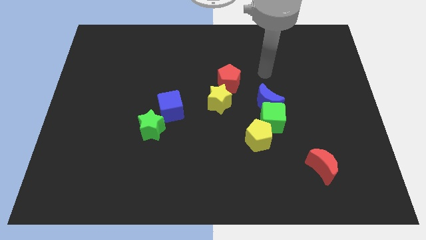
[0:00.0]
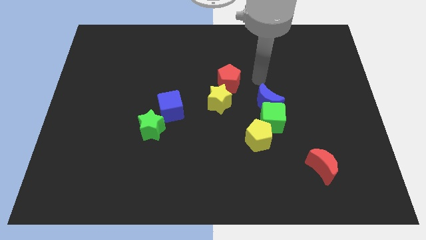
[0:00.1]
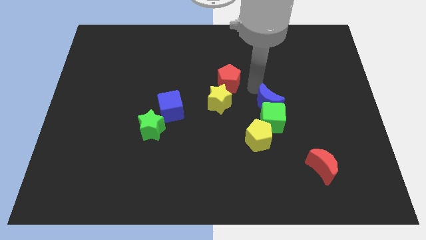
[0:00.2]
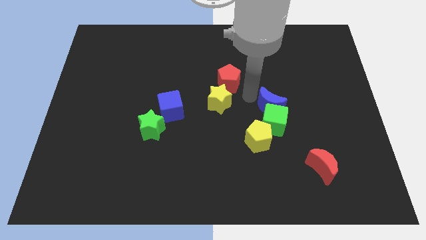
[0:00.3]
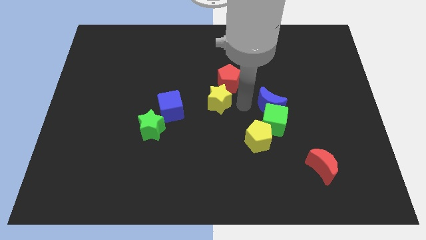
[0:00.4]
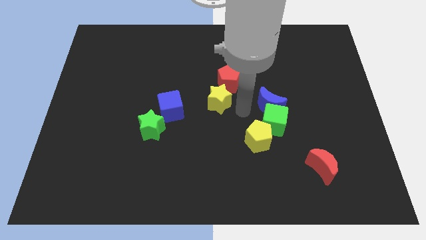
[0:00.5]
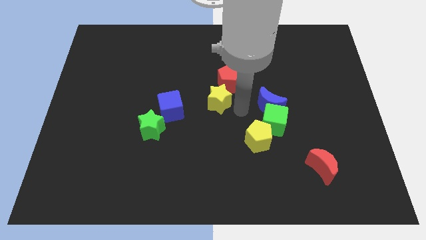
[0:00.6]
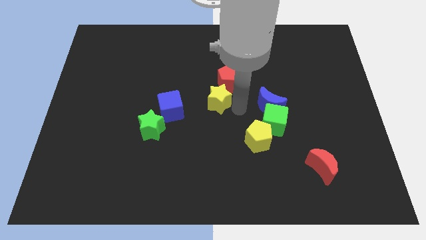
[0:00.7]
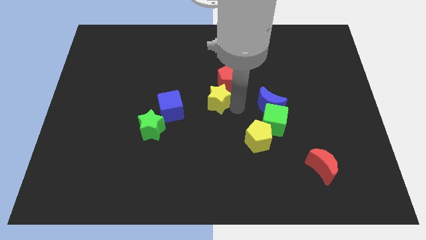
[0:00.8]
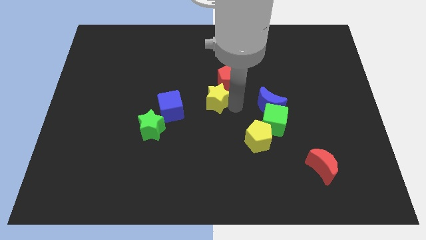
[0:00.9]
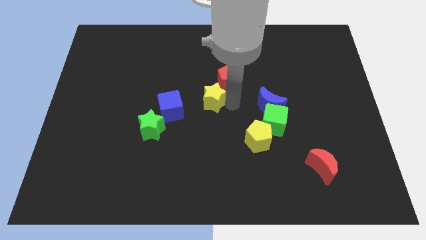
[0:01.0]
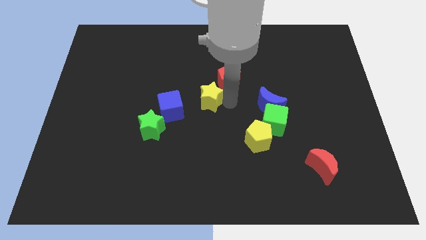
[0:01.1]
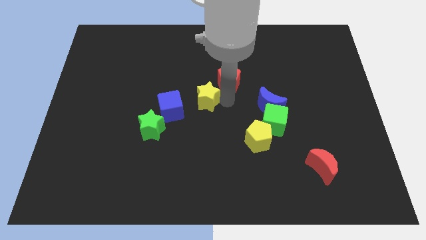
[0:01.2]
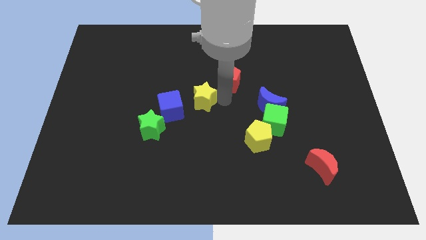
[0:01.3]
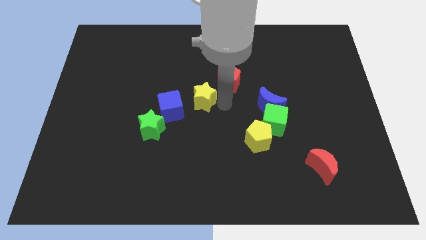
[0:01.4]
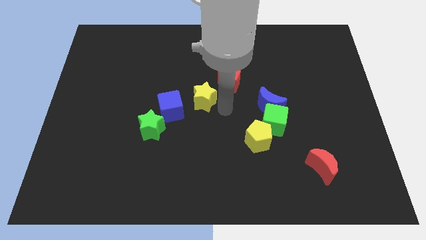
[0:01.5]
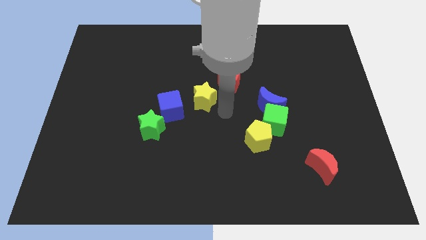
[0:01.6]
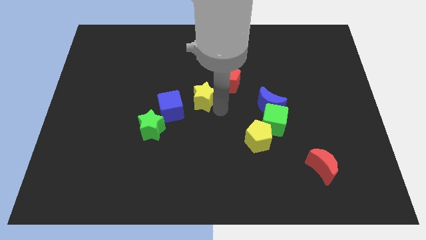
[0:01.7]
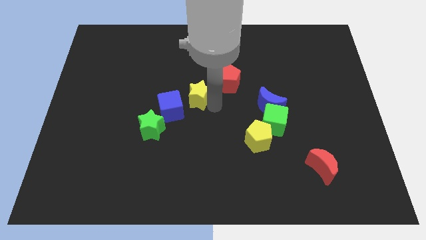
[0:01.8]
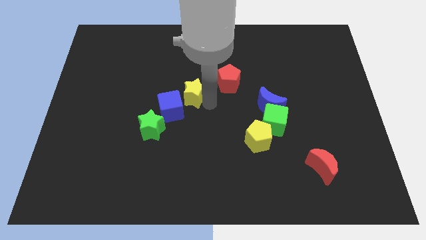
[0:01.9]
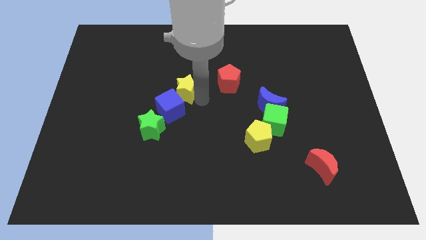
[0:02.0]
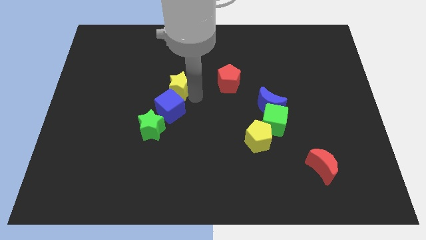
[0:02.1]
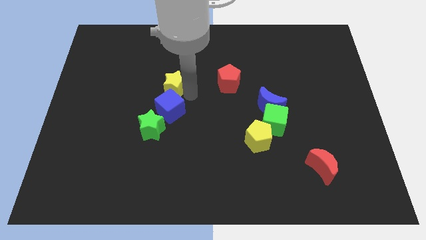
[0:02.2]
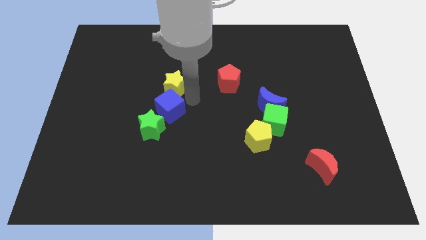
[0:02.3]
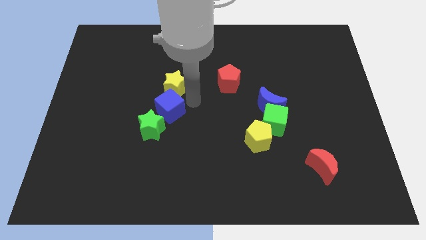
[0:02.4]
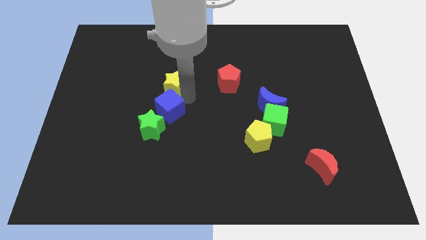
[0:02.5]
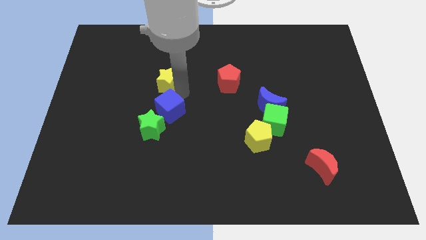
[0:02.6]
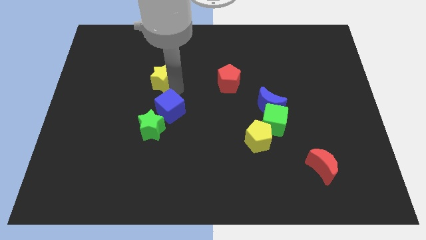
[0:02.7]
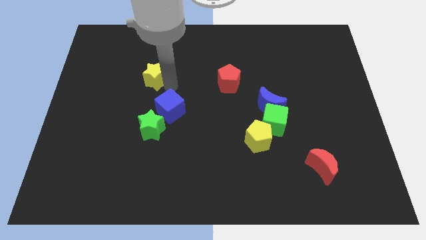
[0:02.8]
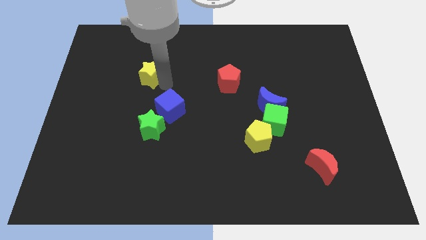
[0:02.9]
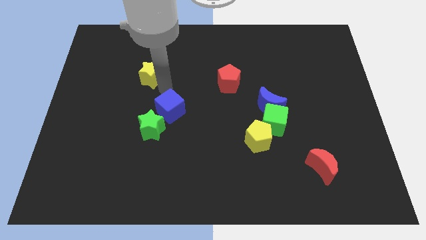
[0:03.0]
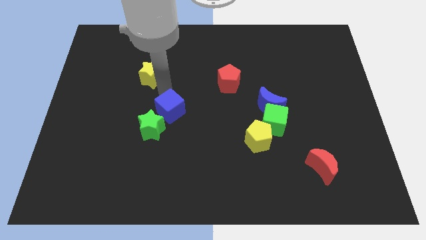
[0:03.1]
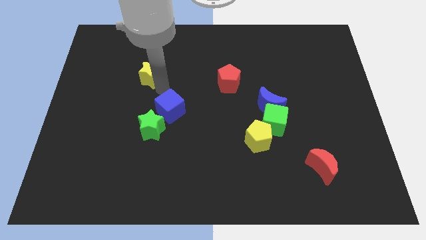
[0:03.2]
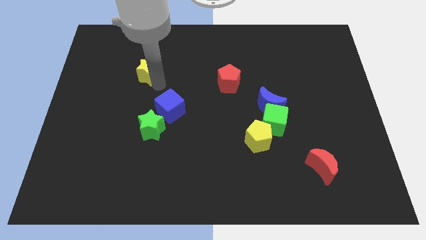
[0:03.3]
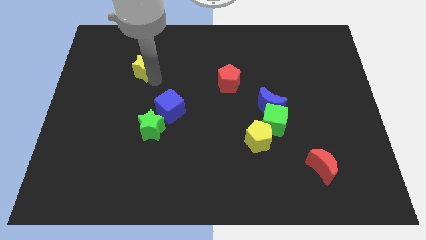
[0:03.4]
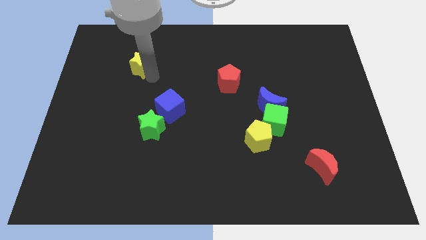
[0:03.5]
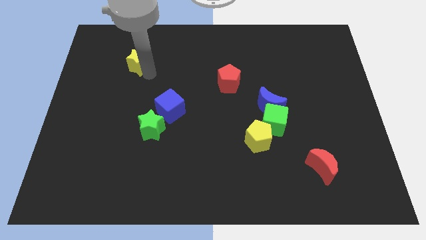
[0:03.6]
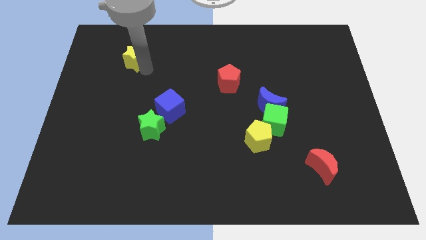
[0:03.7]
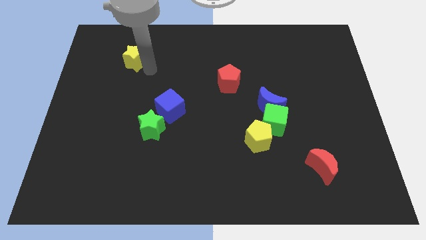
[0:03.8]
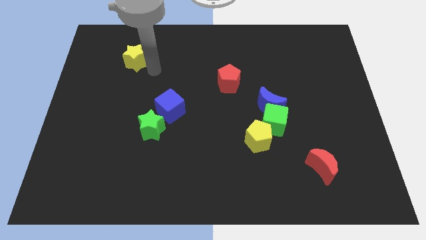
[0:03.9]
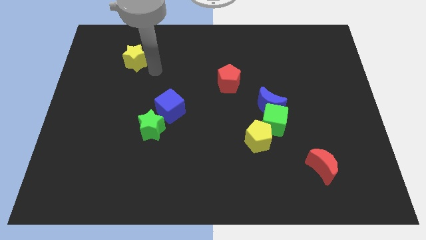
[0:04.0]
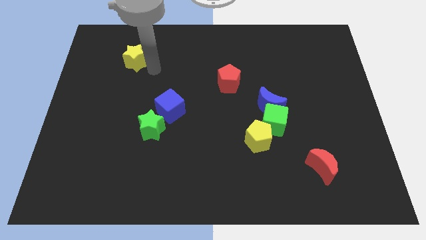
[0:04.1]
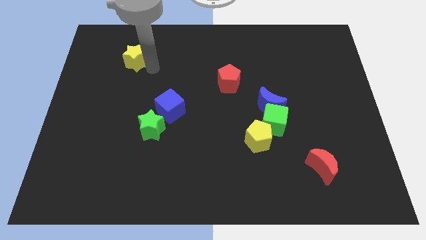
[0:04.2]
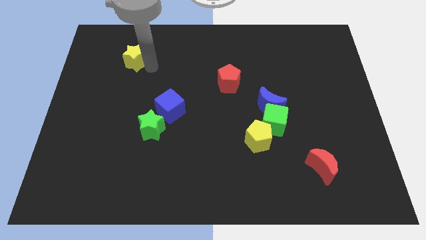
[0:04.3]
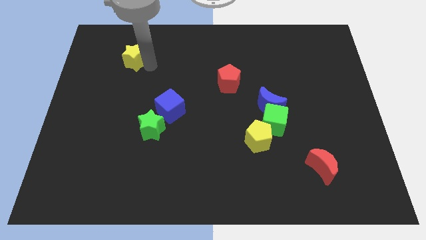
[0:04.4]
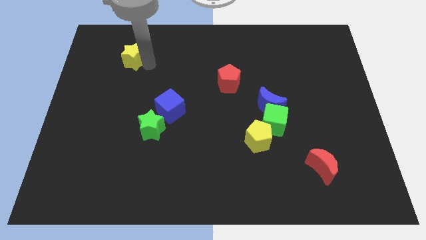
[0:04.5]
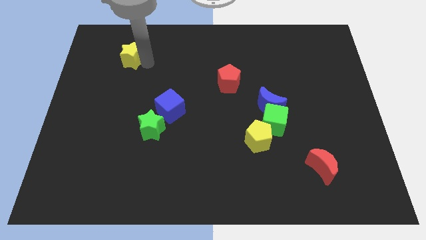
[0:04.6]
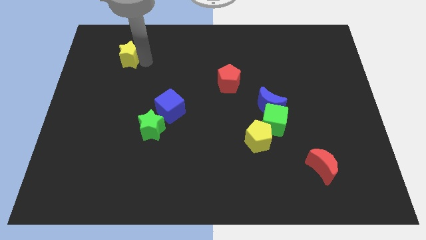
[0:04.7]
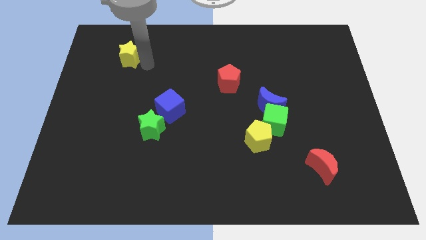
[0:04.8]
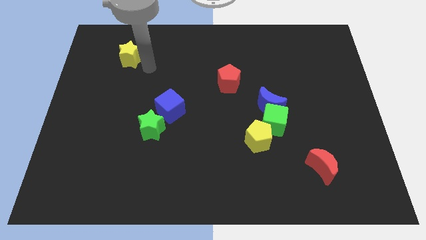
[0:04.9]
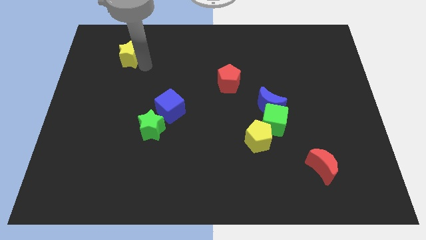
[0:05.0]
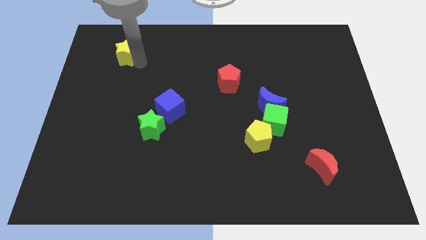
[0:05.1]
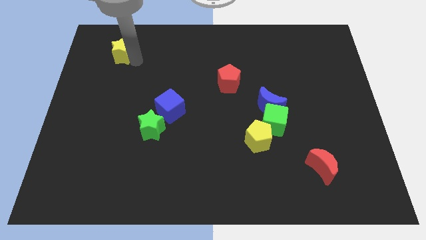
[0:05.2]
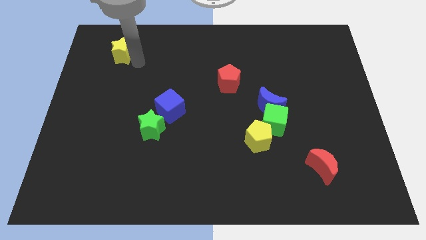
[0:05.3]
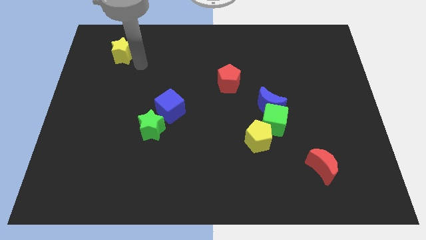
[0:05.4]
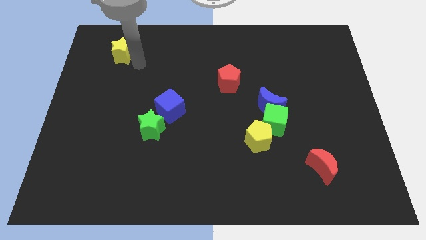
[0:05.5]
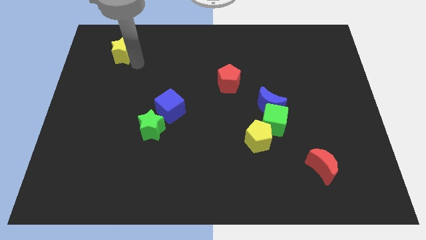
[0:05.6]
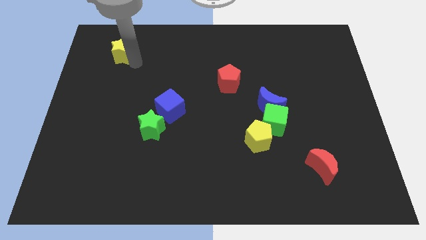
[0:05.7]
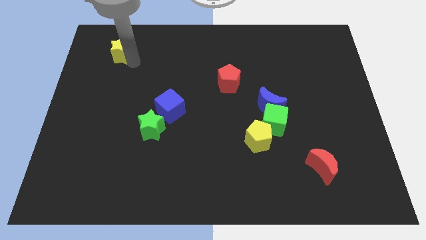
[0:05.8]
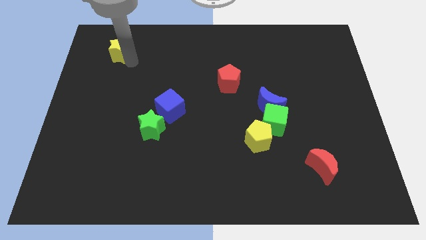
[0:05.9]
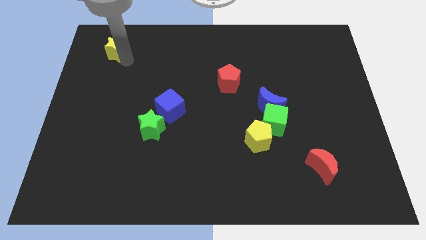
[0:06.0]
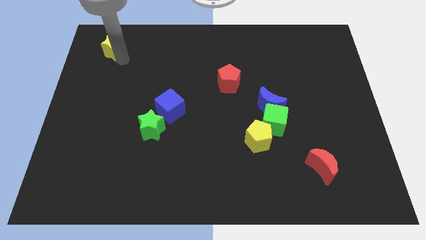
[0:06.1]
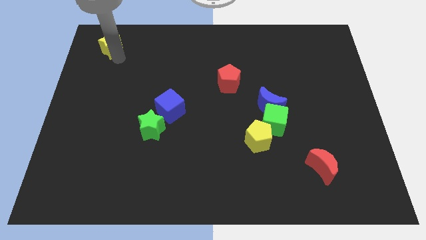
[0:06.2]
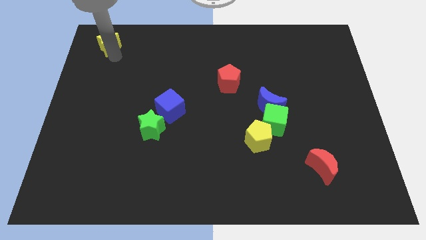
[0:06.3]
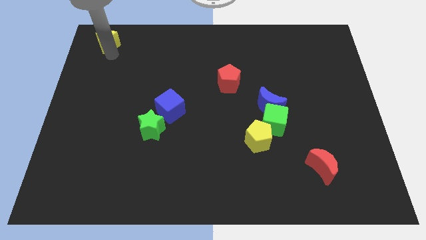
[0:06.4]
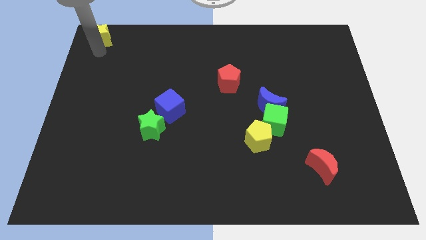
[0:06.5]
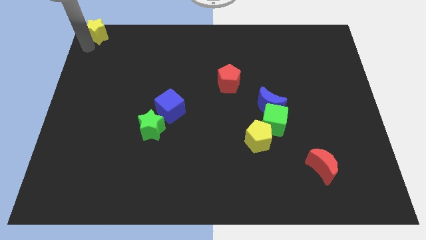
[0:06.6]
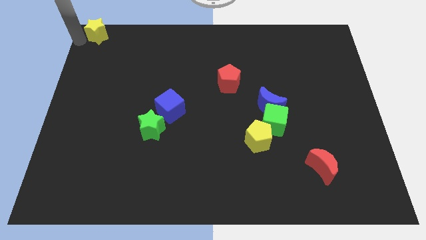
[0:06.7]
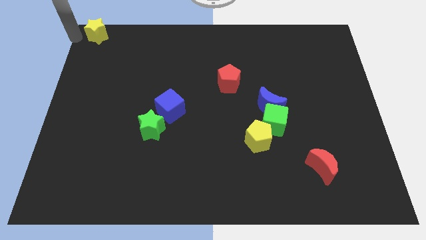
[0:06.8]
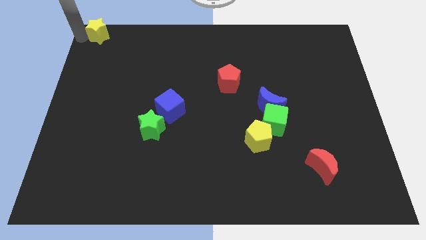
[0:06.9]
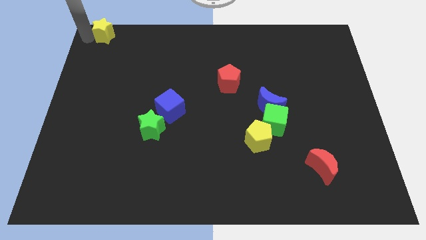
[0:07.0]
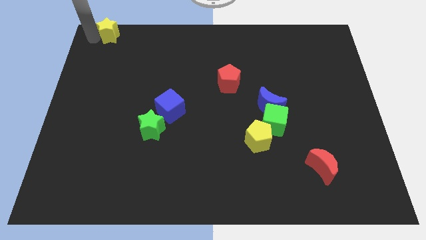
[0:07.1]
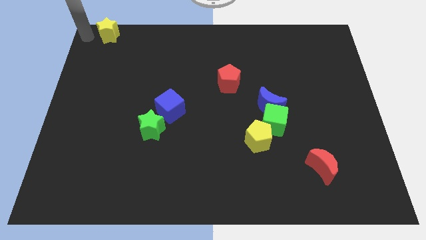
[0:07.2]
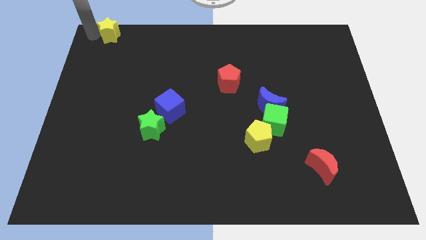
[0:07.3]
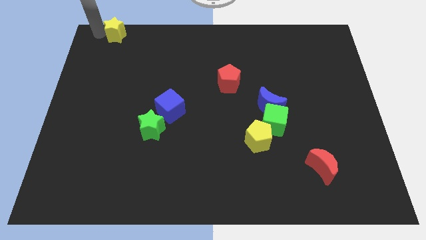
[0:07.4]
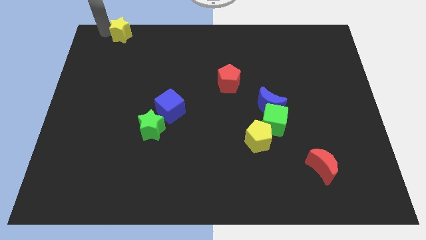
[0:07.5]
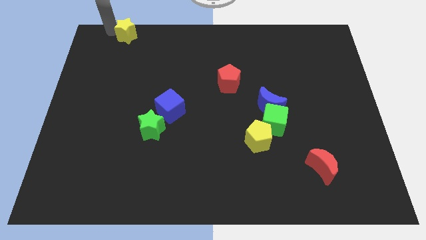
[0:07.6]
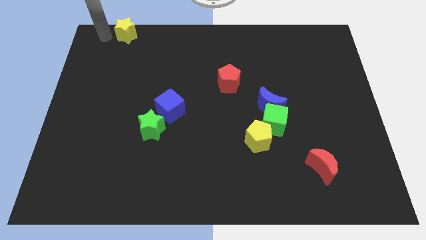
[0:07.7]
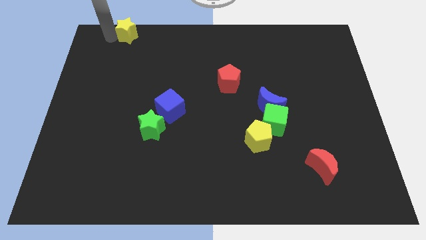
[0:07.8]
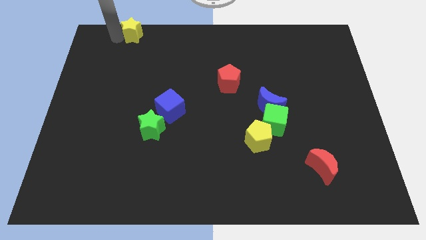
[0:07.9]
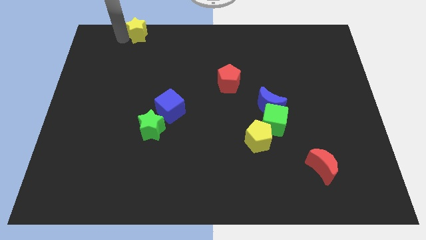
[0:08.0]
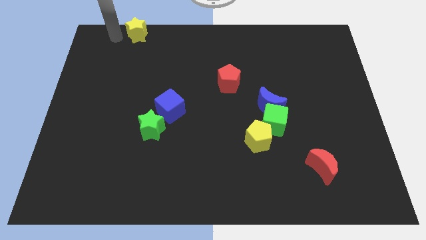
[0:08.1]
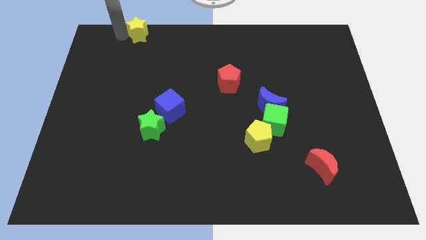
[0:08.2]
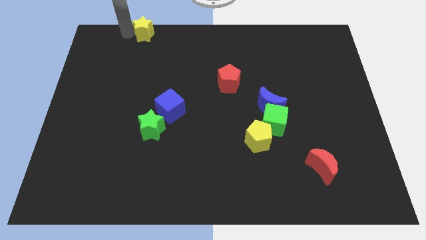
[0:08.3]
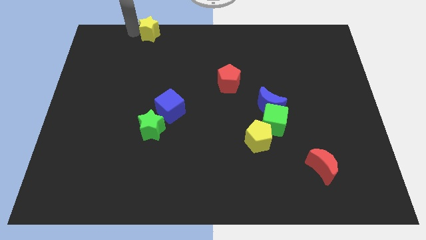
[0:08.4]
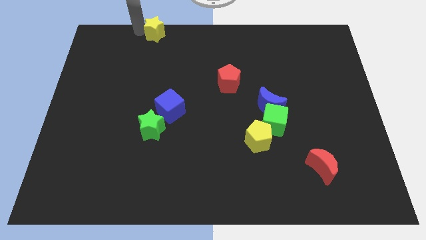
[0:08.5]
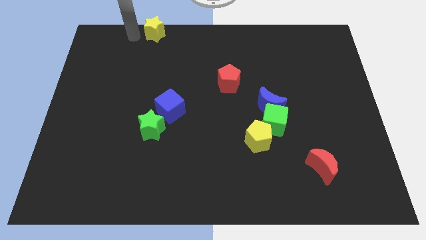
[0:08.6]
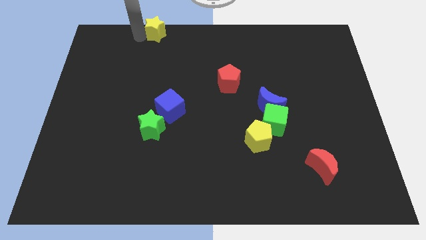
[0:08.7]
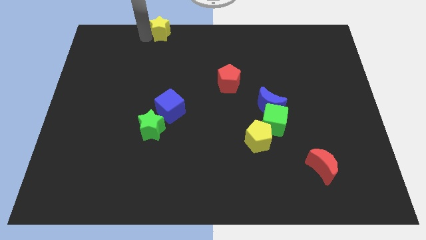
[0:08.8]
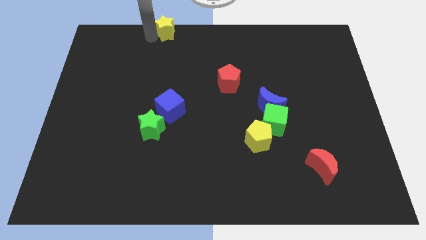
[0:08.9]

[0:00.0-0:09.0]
slide the yellow star to the top
